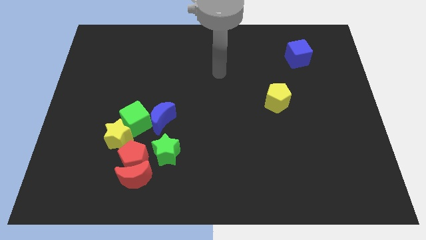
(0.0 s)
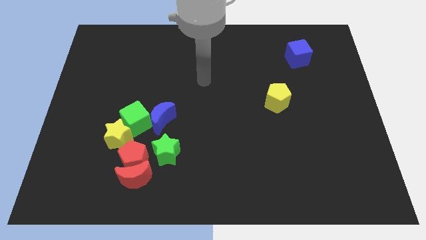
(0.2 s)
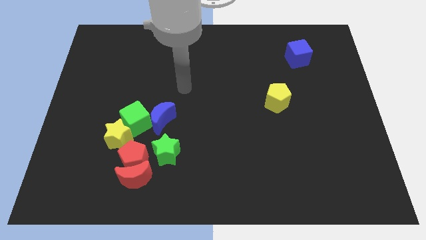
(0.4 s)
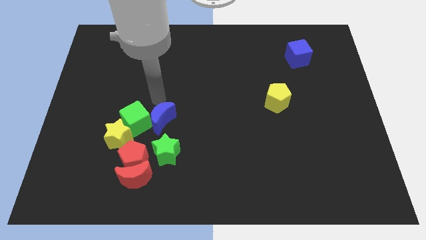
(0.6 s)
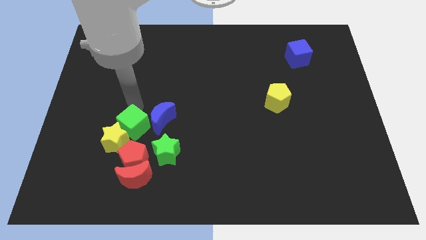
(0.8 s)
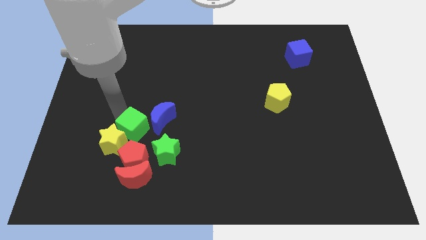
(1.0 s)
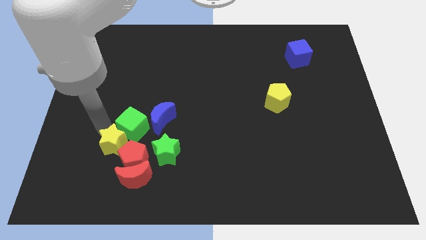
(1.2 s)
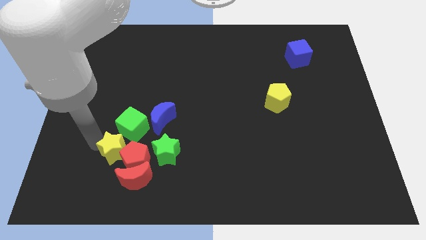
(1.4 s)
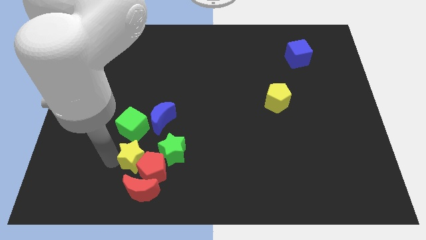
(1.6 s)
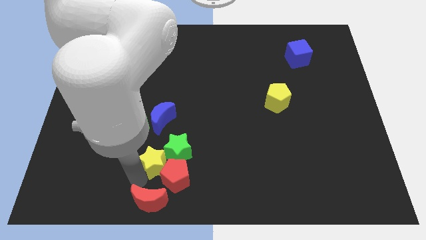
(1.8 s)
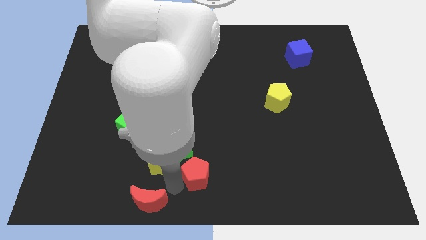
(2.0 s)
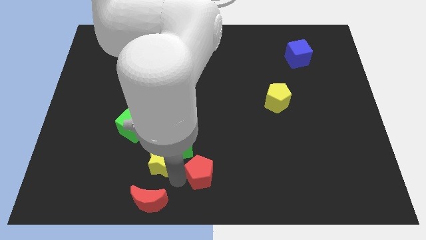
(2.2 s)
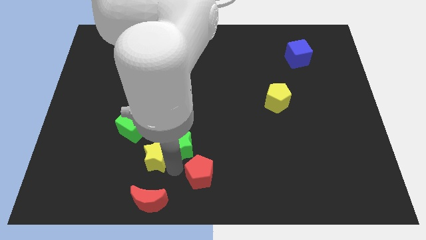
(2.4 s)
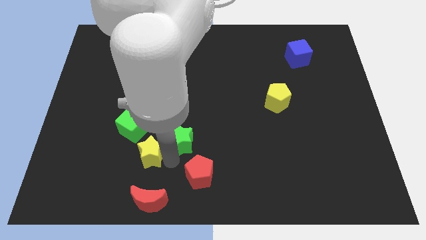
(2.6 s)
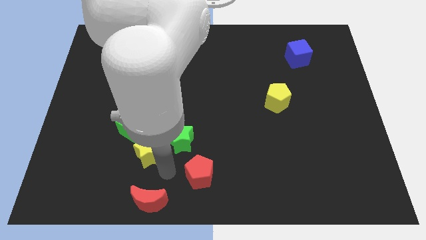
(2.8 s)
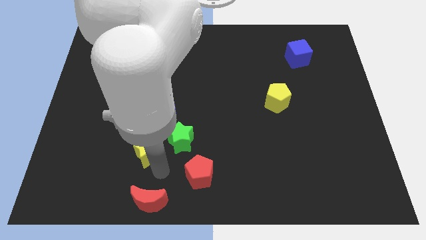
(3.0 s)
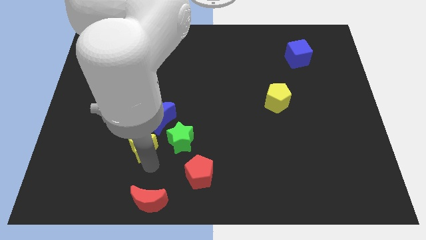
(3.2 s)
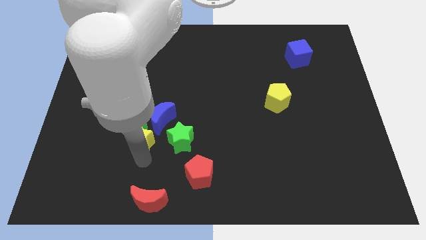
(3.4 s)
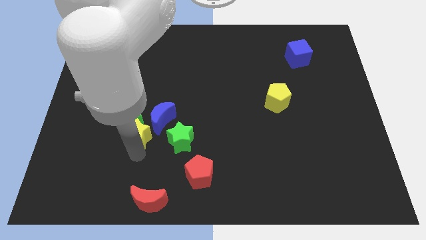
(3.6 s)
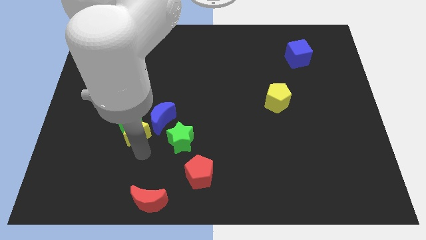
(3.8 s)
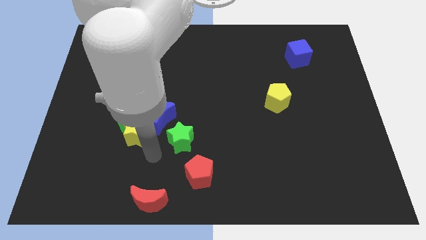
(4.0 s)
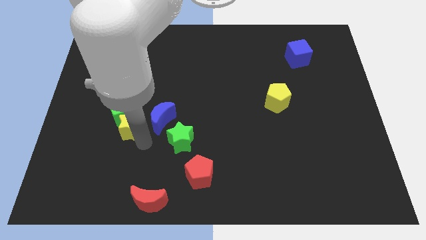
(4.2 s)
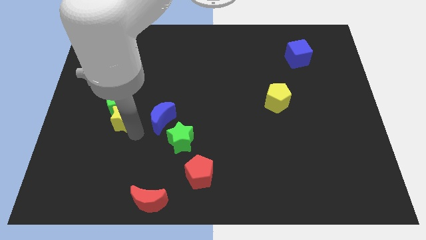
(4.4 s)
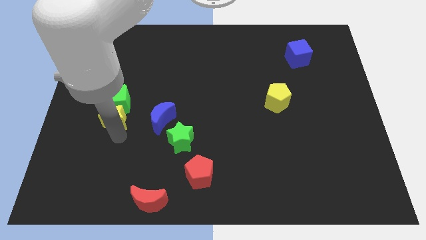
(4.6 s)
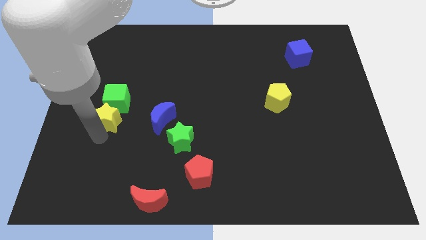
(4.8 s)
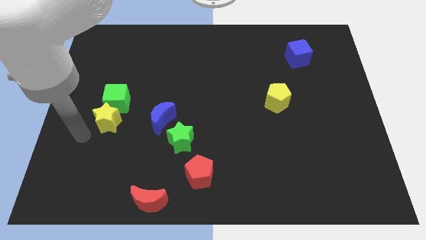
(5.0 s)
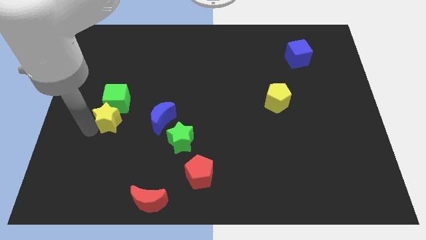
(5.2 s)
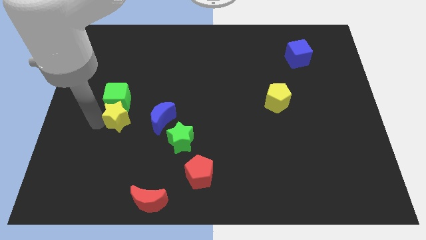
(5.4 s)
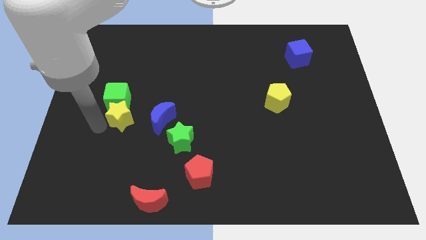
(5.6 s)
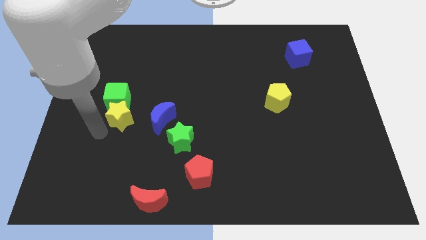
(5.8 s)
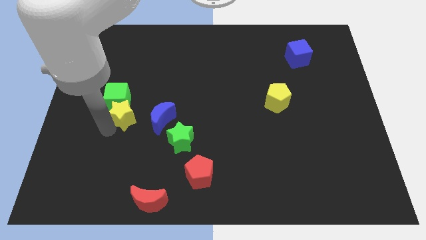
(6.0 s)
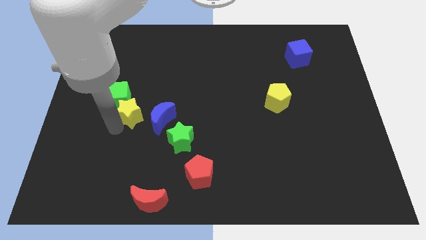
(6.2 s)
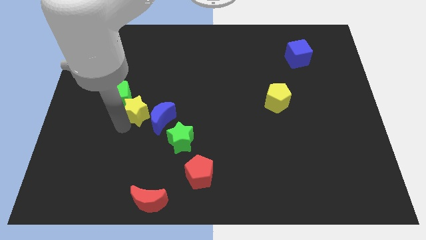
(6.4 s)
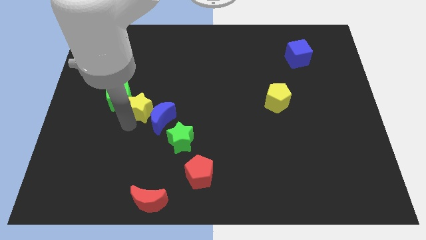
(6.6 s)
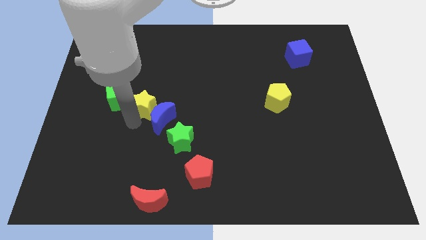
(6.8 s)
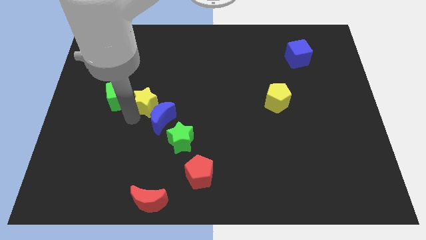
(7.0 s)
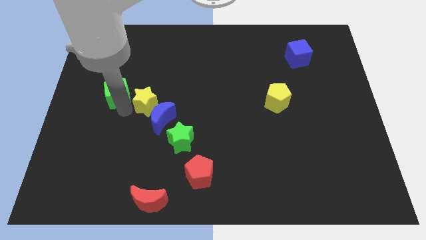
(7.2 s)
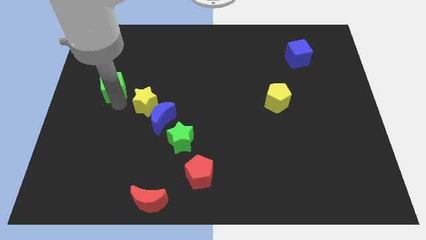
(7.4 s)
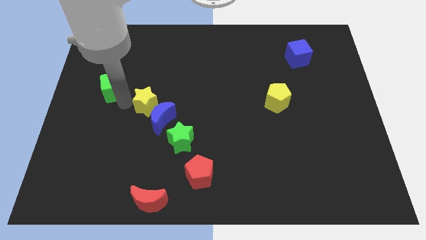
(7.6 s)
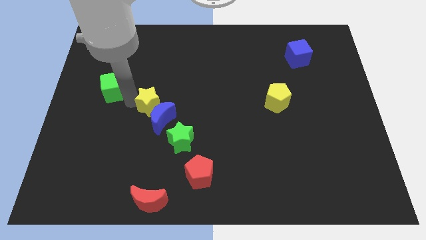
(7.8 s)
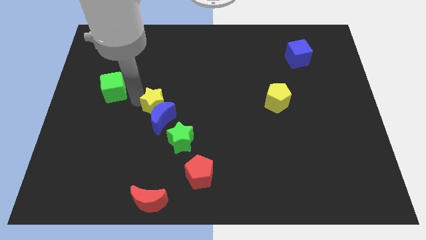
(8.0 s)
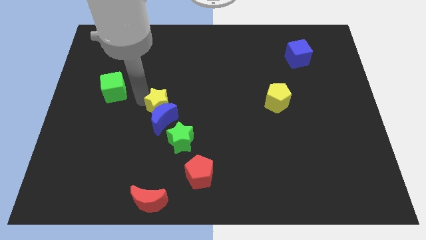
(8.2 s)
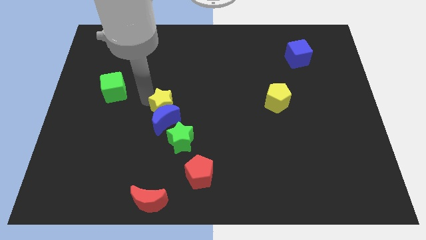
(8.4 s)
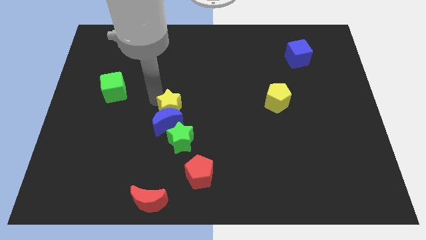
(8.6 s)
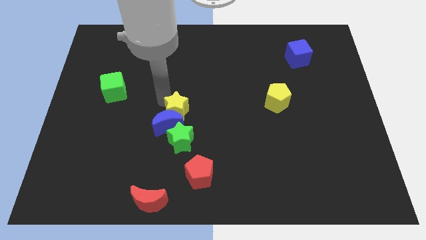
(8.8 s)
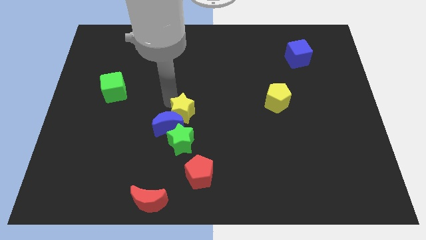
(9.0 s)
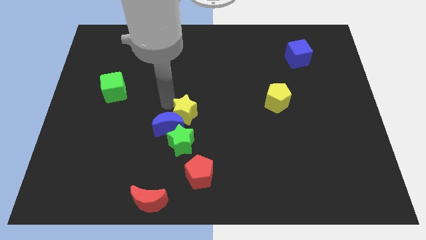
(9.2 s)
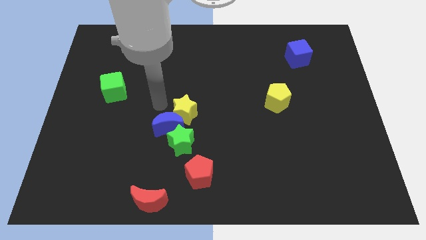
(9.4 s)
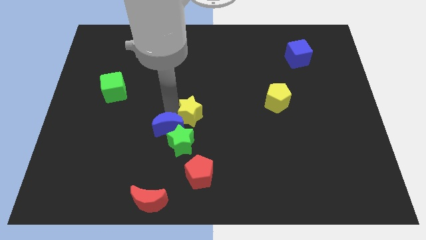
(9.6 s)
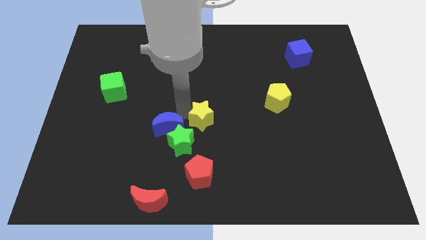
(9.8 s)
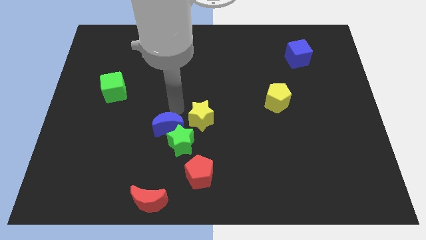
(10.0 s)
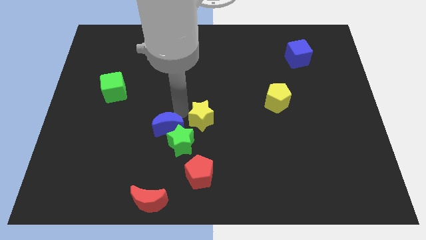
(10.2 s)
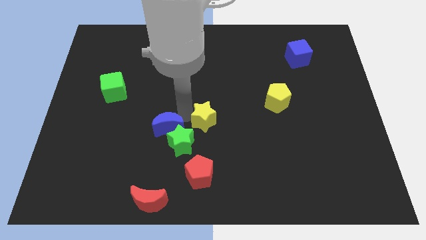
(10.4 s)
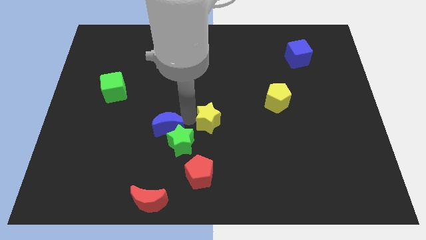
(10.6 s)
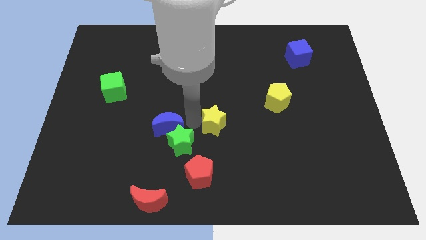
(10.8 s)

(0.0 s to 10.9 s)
push the yellow star right

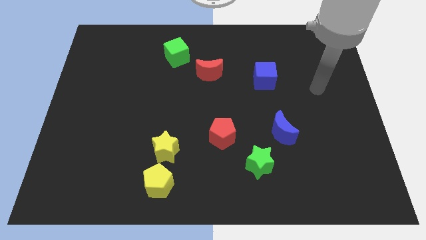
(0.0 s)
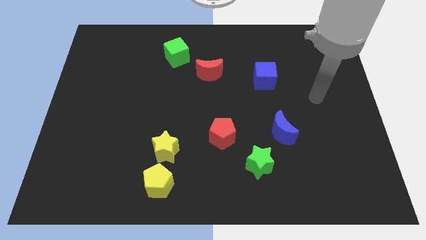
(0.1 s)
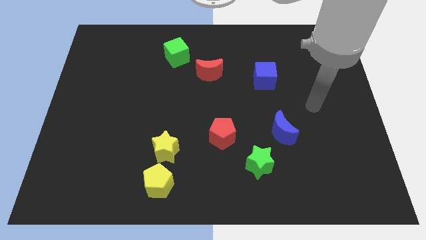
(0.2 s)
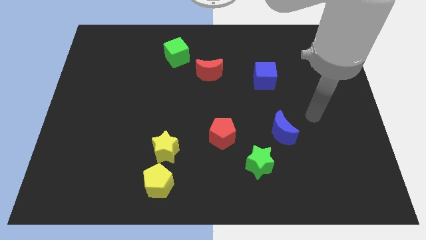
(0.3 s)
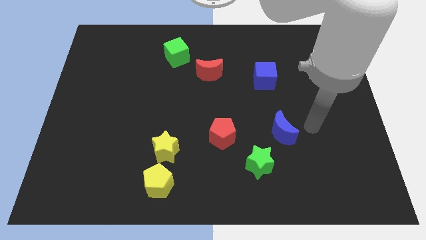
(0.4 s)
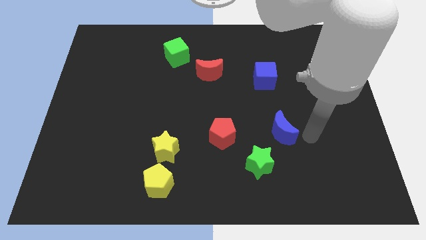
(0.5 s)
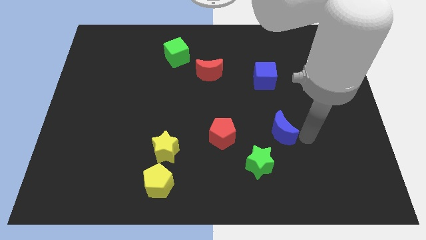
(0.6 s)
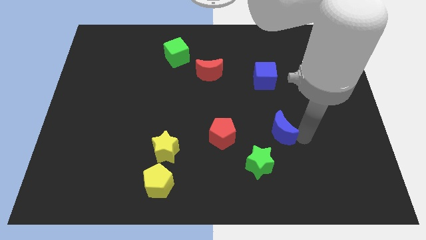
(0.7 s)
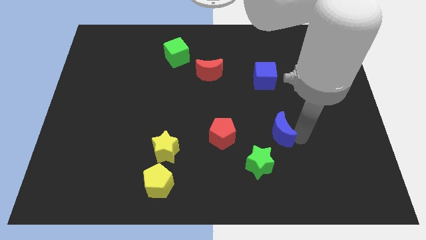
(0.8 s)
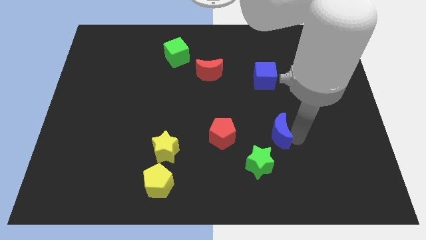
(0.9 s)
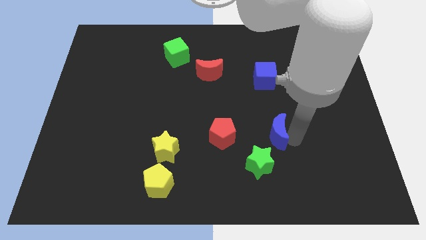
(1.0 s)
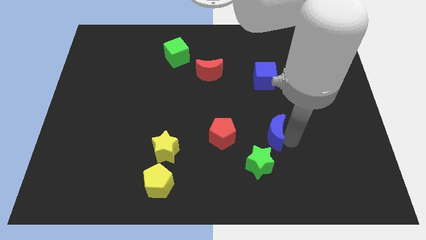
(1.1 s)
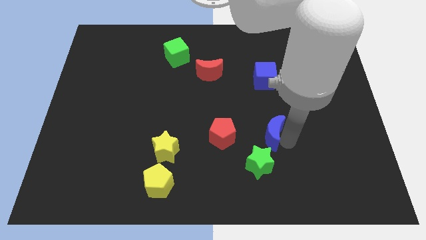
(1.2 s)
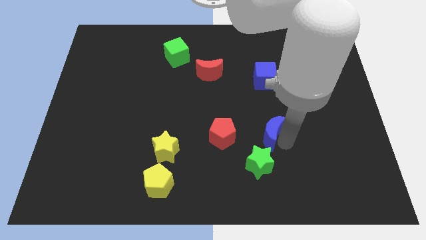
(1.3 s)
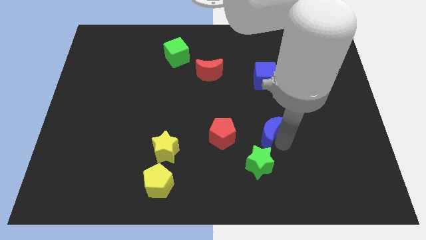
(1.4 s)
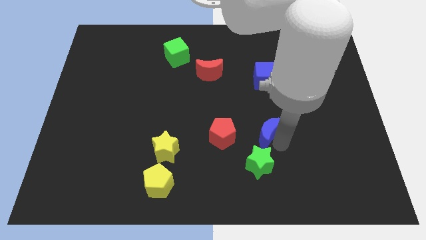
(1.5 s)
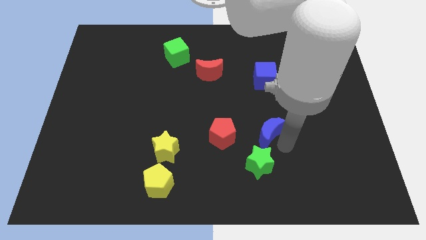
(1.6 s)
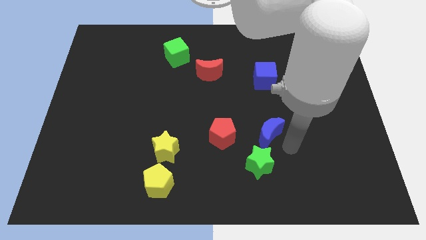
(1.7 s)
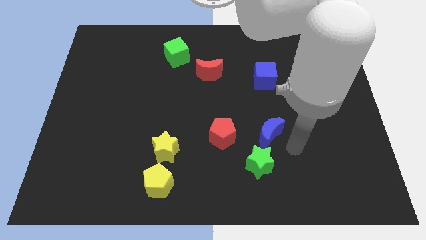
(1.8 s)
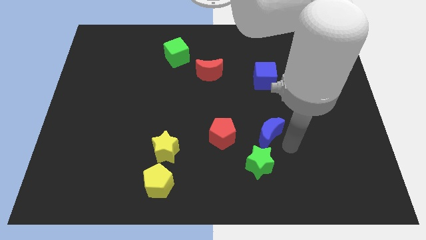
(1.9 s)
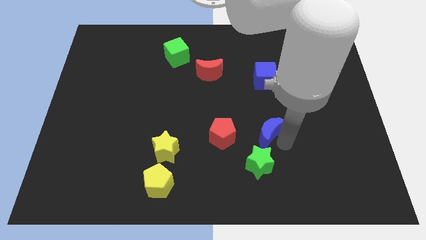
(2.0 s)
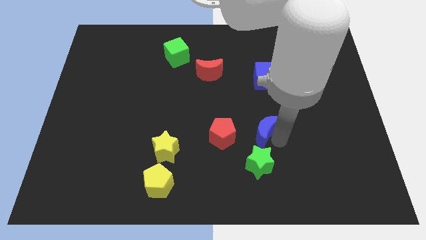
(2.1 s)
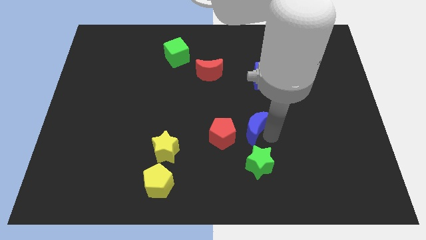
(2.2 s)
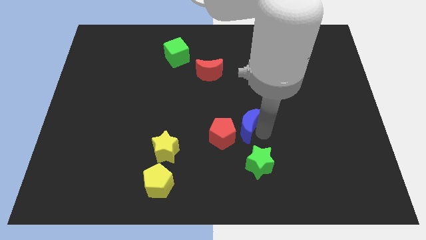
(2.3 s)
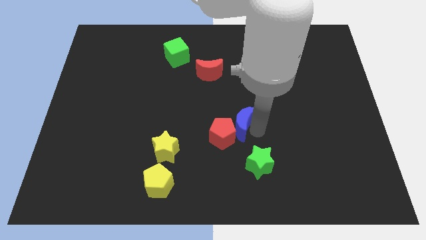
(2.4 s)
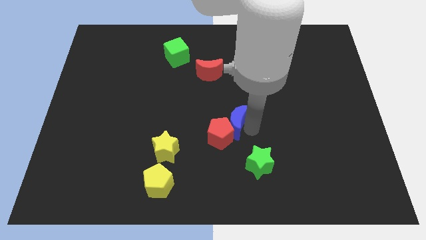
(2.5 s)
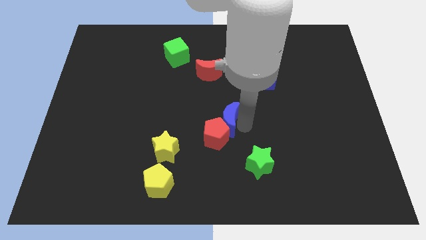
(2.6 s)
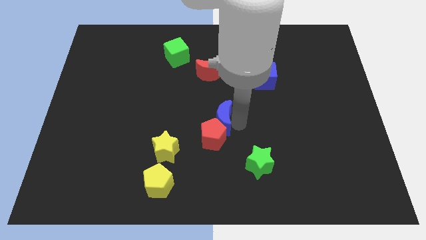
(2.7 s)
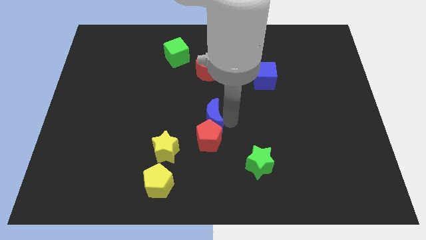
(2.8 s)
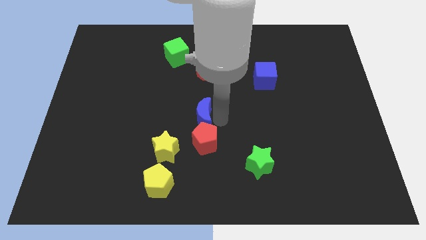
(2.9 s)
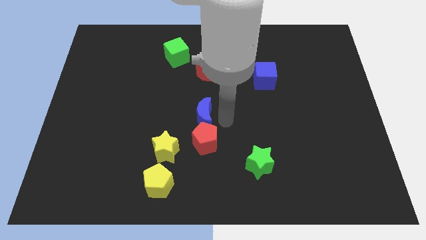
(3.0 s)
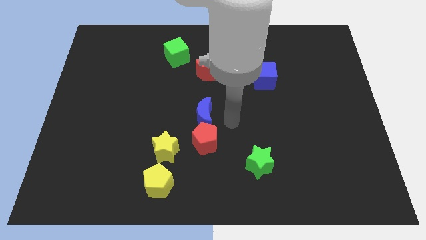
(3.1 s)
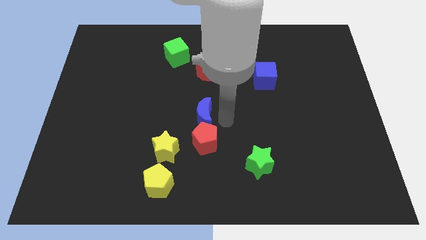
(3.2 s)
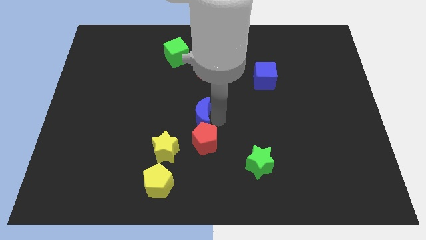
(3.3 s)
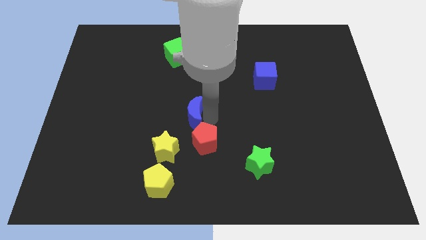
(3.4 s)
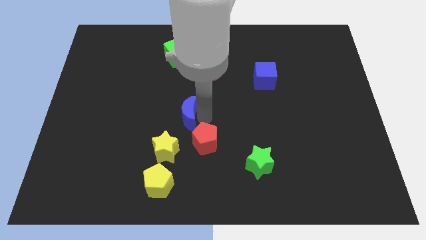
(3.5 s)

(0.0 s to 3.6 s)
move the blue moon left
